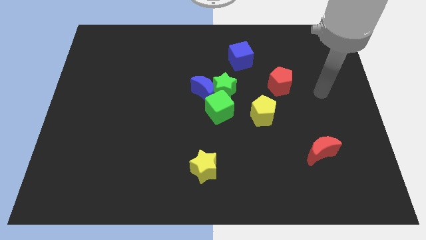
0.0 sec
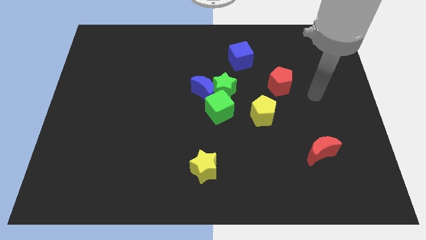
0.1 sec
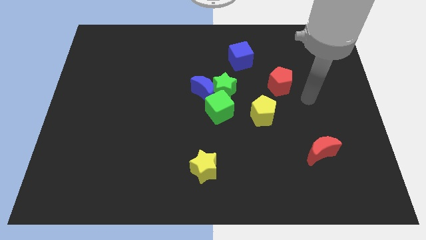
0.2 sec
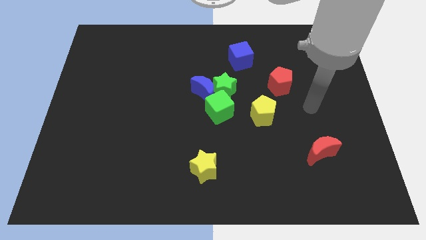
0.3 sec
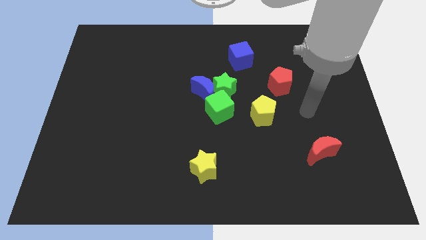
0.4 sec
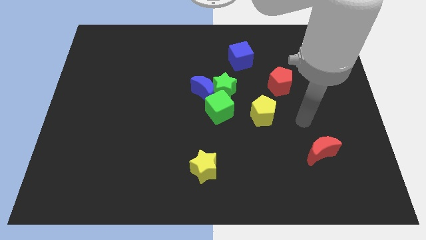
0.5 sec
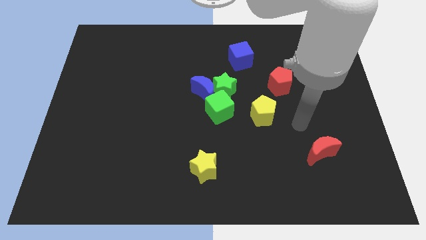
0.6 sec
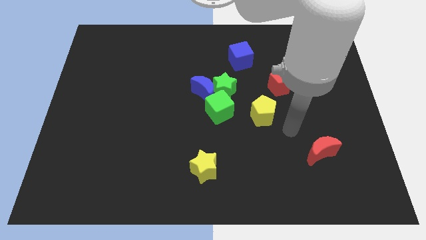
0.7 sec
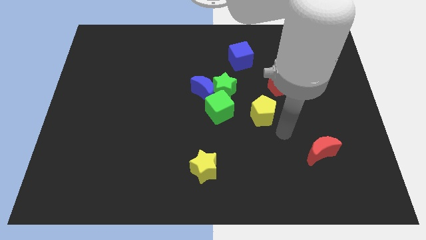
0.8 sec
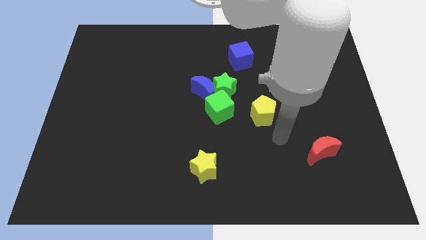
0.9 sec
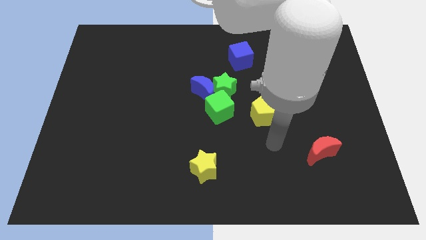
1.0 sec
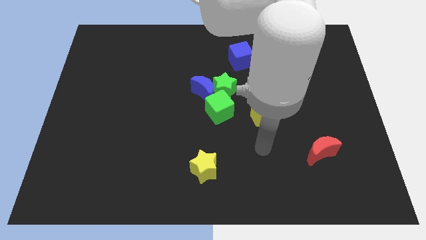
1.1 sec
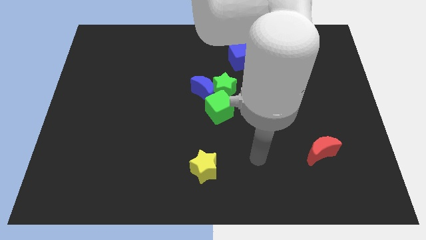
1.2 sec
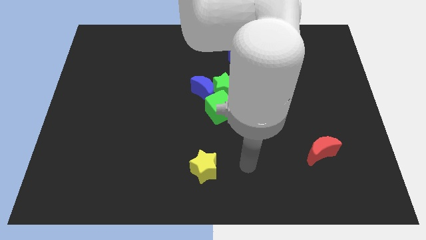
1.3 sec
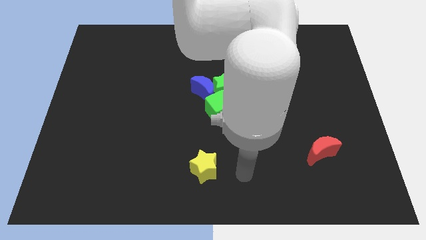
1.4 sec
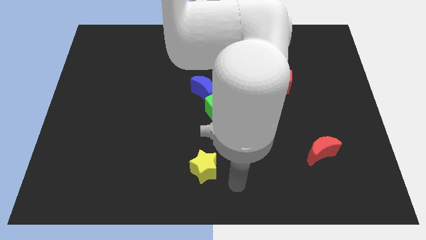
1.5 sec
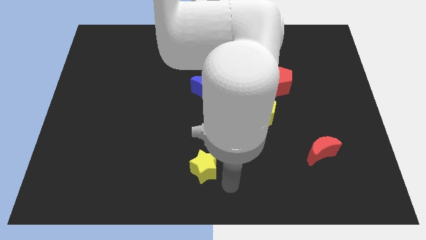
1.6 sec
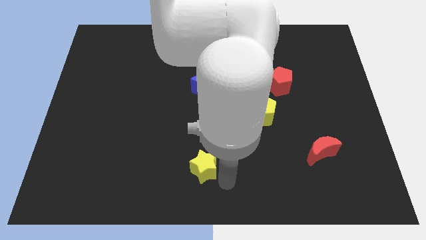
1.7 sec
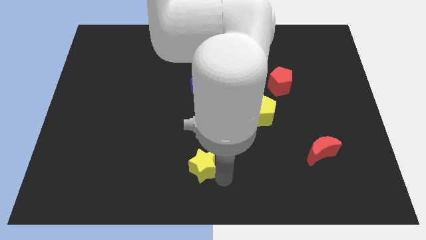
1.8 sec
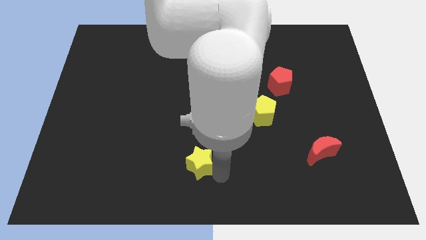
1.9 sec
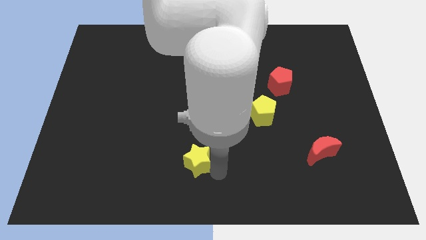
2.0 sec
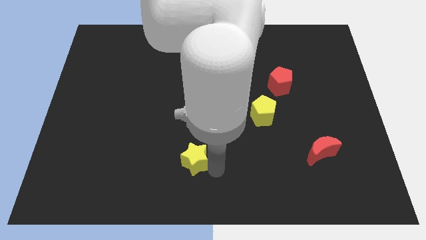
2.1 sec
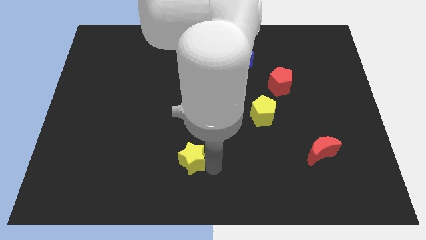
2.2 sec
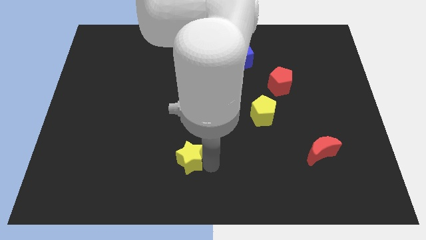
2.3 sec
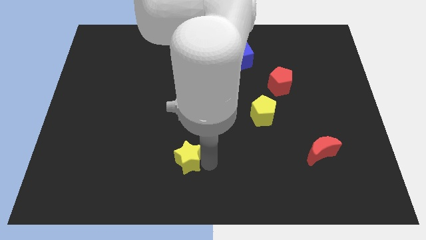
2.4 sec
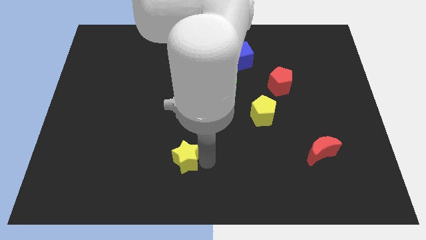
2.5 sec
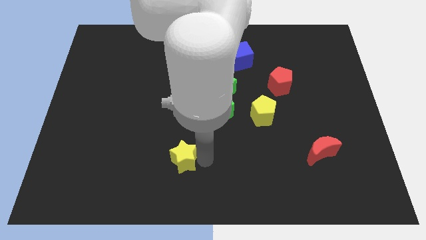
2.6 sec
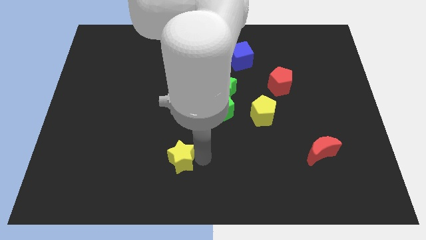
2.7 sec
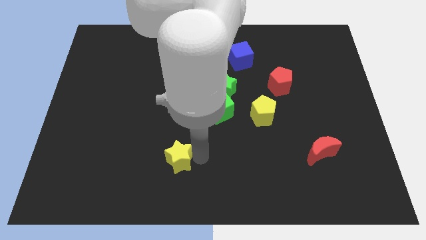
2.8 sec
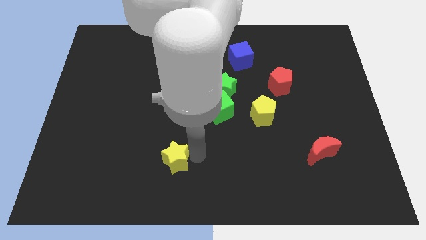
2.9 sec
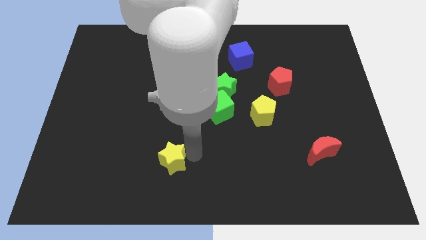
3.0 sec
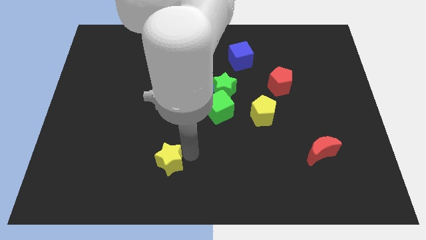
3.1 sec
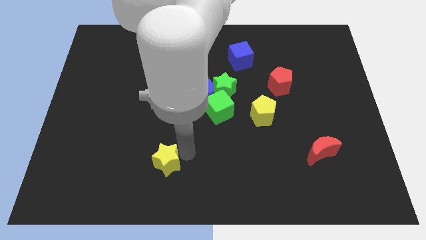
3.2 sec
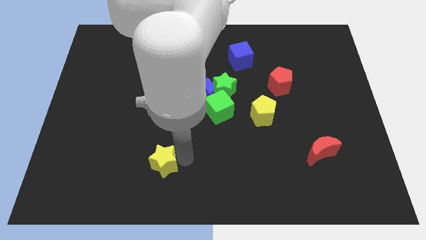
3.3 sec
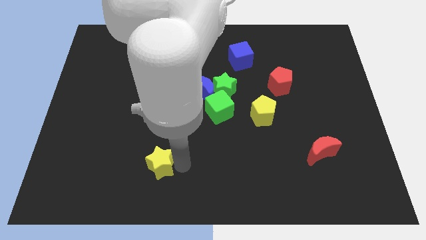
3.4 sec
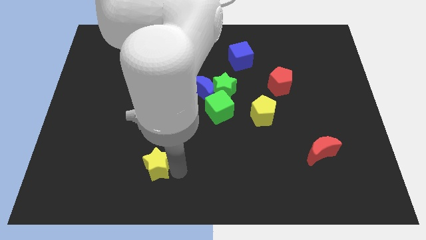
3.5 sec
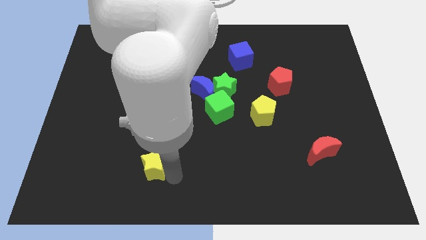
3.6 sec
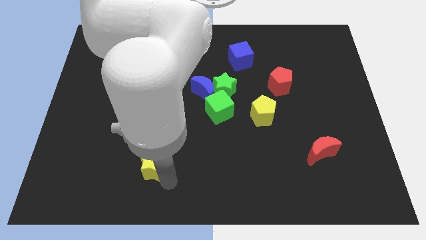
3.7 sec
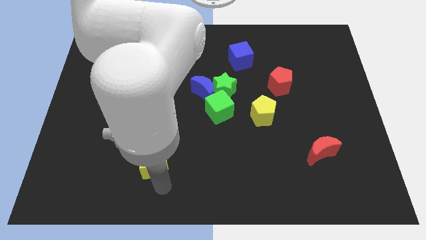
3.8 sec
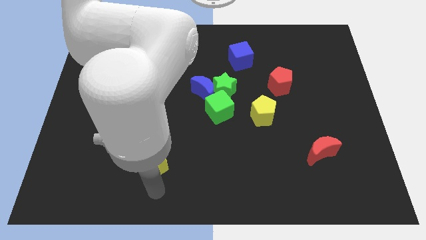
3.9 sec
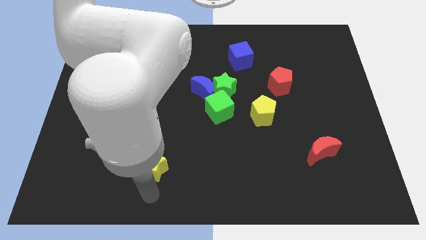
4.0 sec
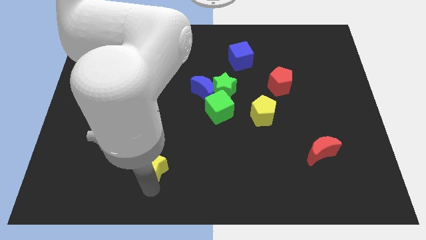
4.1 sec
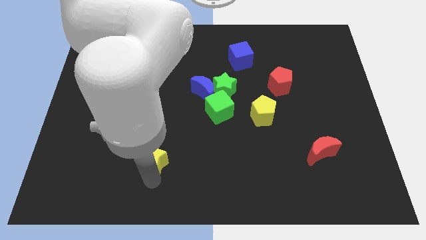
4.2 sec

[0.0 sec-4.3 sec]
push the yellow star up and then to the left slightly

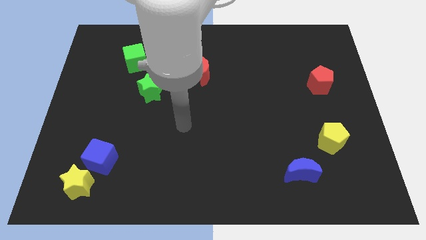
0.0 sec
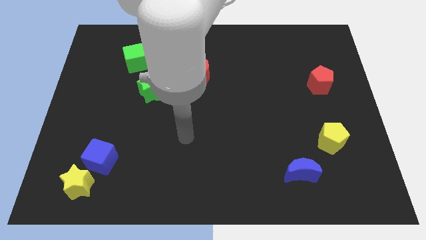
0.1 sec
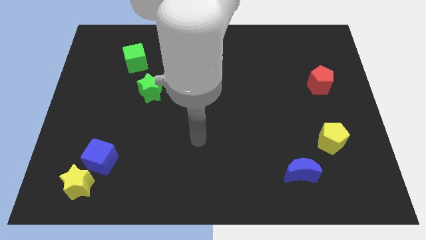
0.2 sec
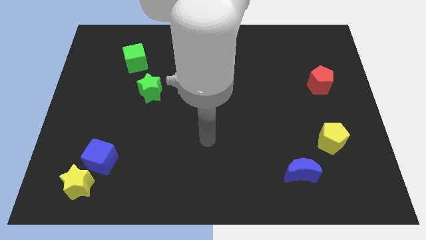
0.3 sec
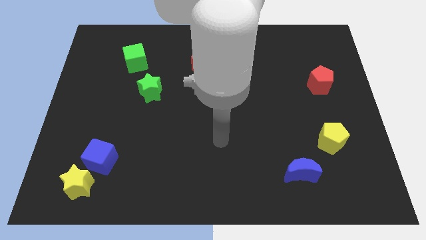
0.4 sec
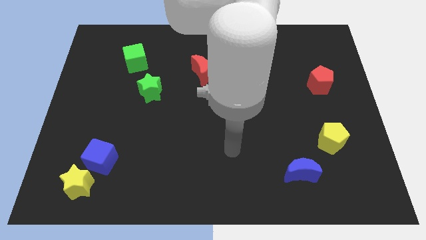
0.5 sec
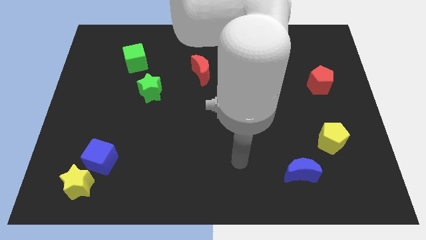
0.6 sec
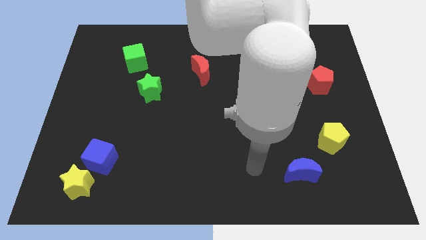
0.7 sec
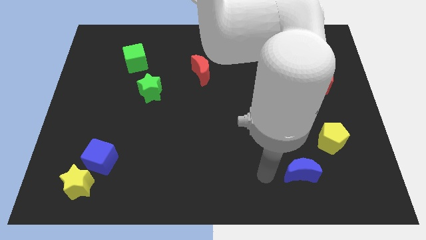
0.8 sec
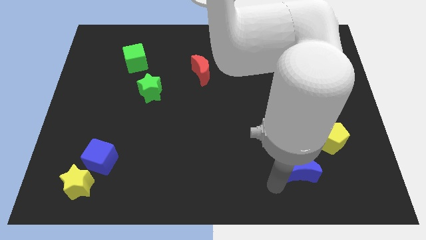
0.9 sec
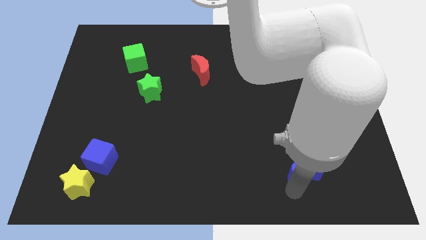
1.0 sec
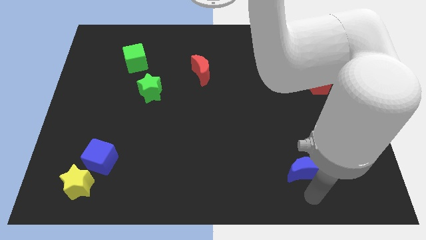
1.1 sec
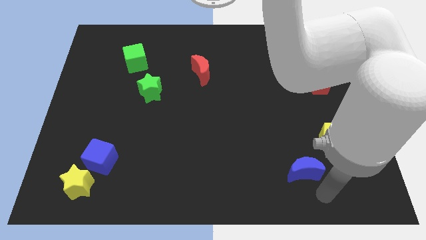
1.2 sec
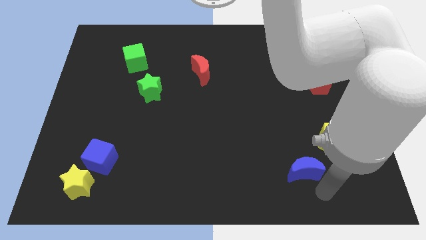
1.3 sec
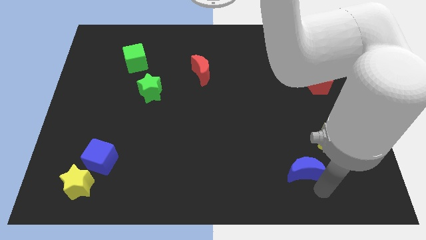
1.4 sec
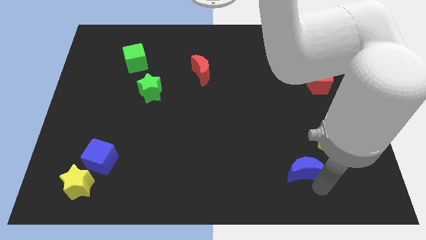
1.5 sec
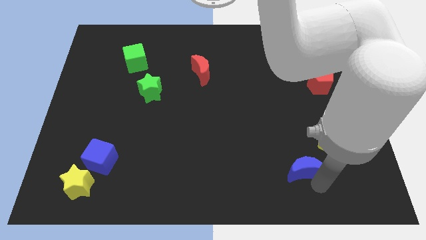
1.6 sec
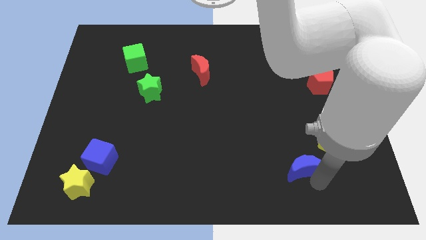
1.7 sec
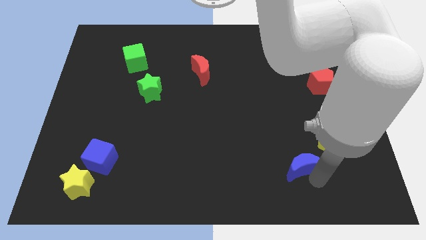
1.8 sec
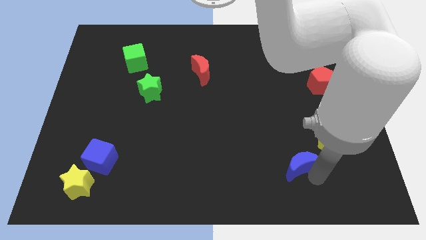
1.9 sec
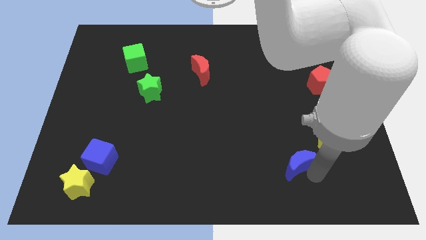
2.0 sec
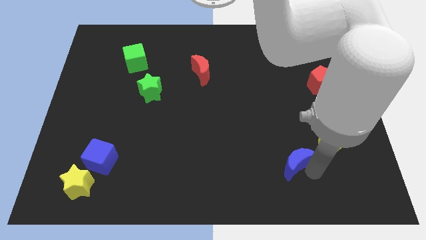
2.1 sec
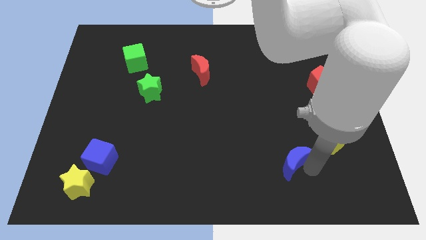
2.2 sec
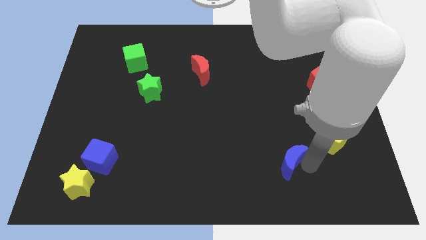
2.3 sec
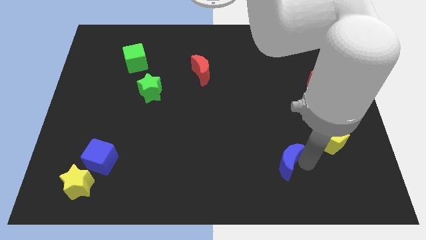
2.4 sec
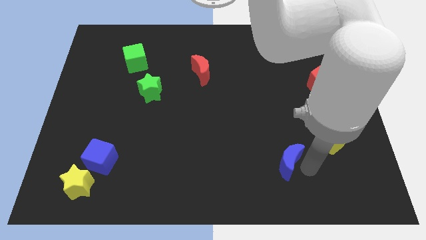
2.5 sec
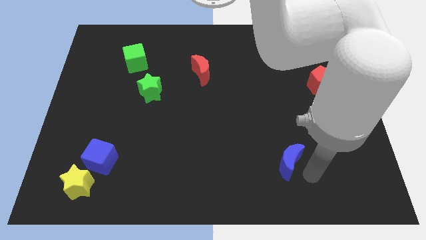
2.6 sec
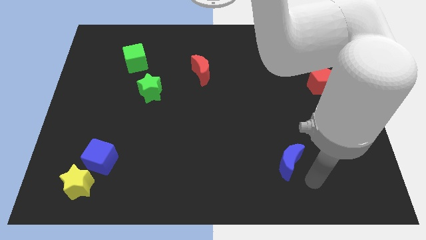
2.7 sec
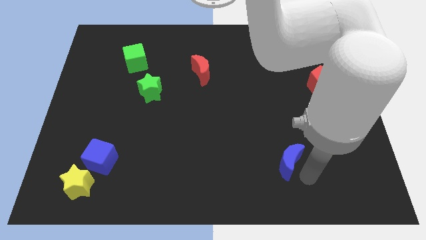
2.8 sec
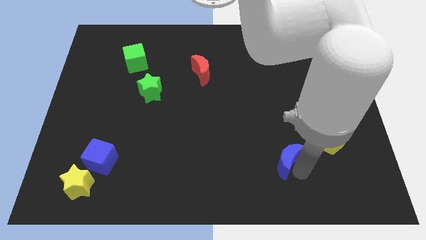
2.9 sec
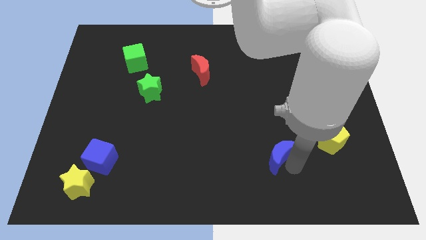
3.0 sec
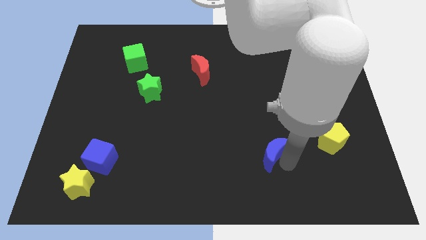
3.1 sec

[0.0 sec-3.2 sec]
slightly push the blue moon upwards and then left

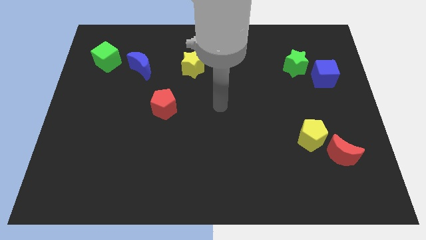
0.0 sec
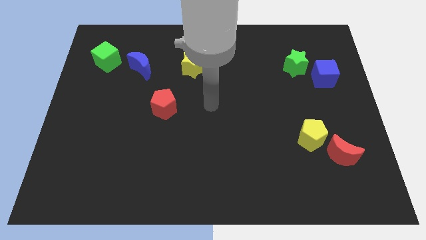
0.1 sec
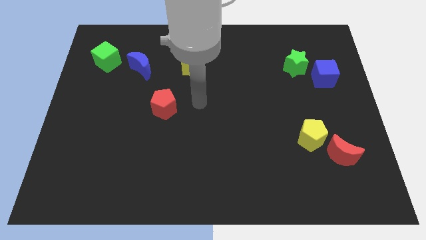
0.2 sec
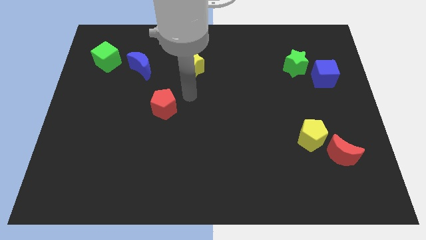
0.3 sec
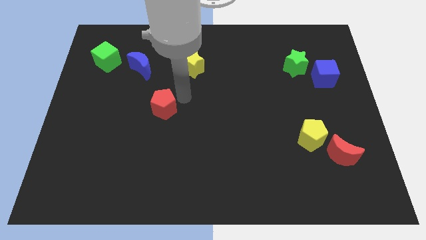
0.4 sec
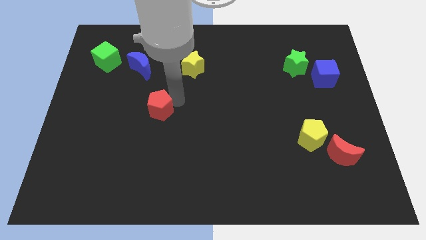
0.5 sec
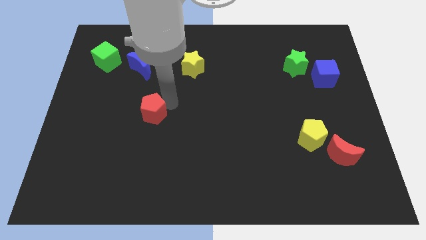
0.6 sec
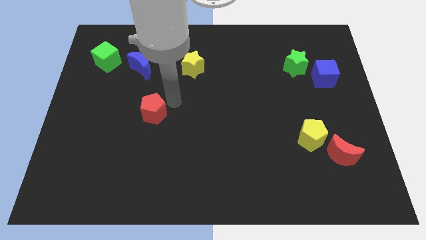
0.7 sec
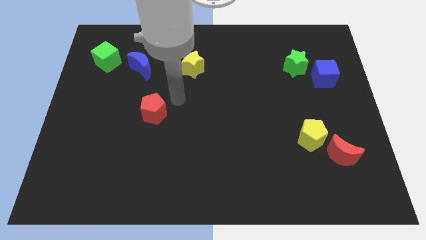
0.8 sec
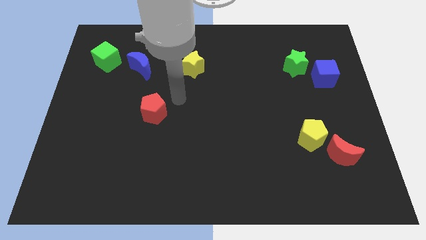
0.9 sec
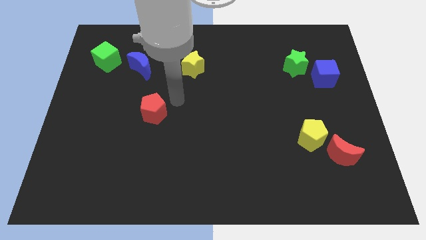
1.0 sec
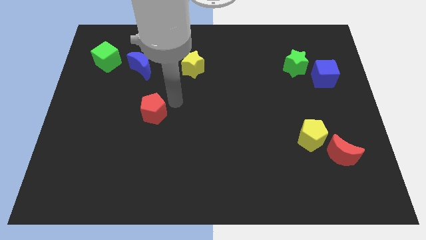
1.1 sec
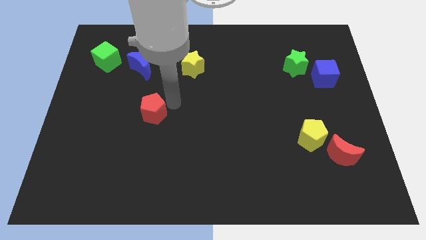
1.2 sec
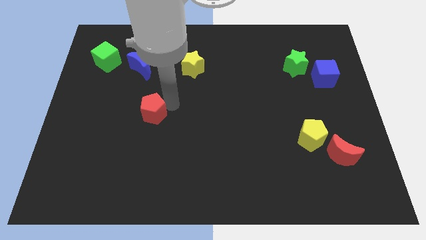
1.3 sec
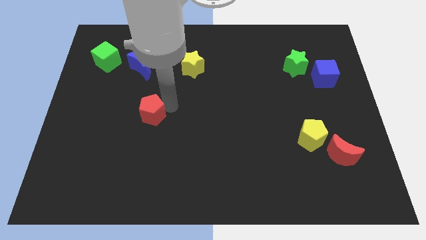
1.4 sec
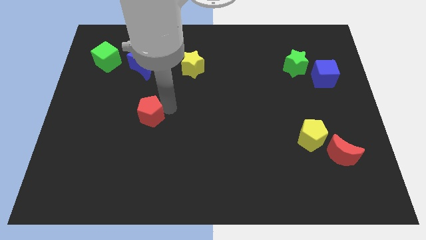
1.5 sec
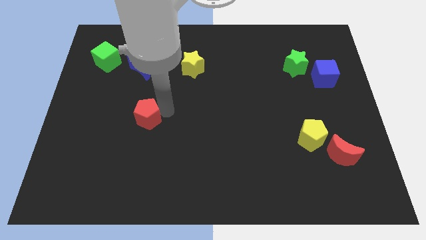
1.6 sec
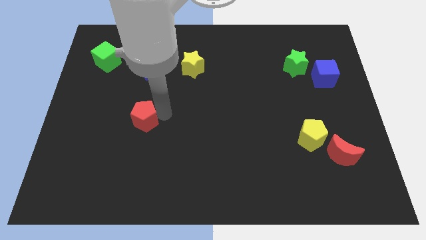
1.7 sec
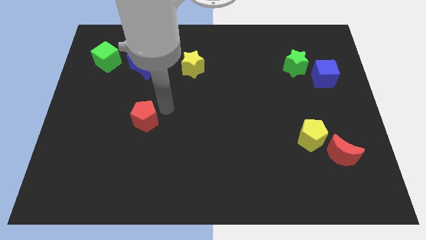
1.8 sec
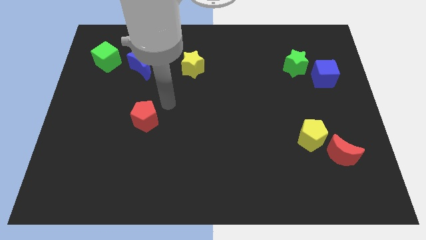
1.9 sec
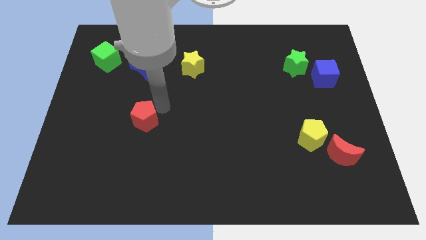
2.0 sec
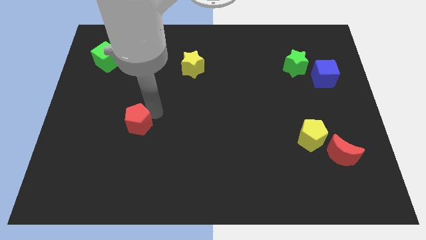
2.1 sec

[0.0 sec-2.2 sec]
slightly move the red pentagon downwards and then to the left
